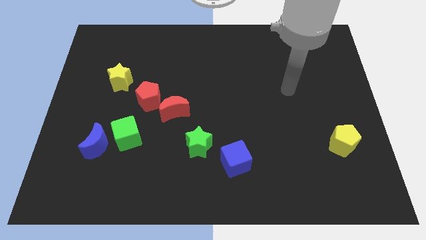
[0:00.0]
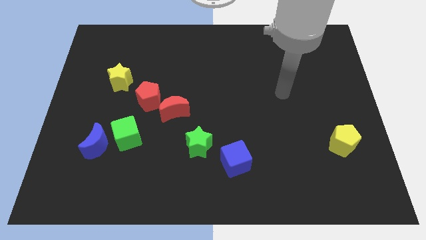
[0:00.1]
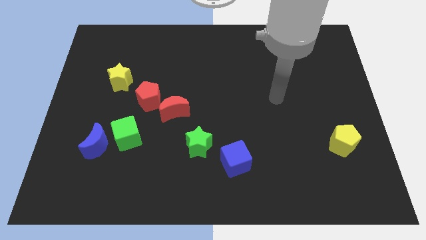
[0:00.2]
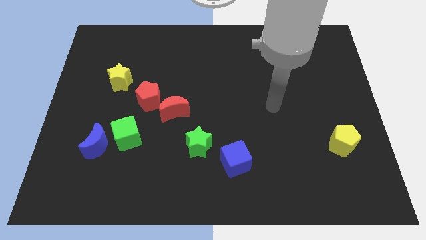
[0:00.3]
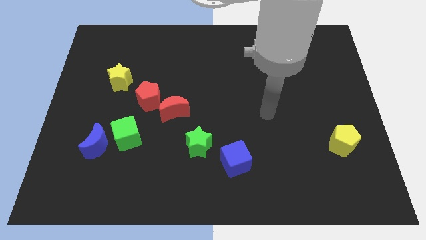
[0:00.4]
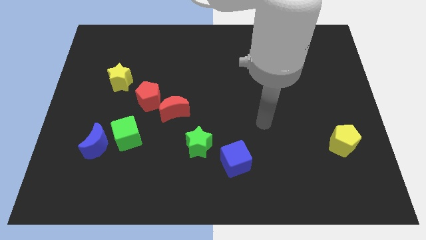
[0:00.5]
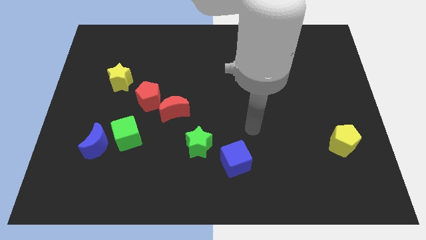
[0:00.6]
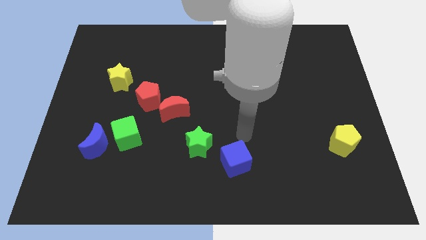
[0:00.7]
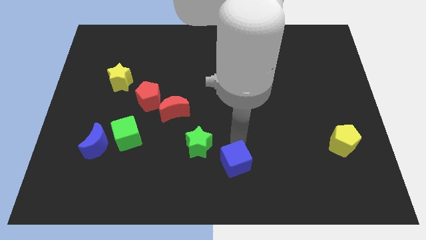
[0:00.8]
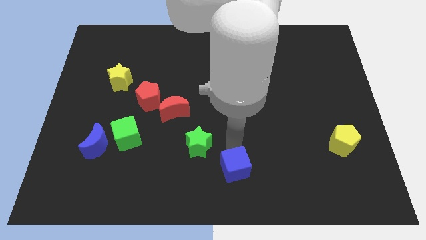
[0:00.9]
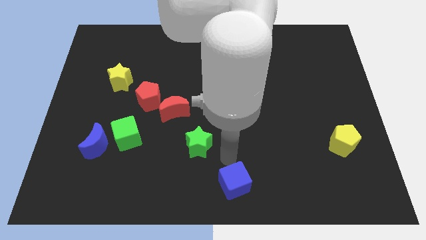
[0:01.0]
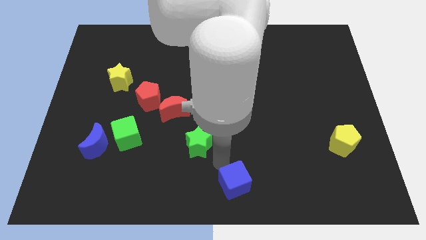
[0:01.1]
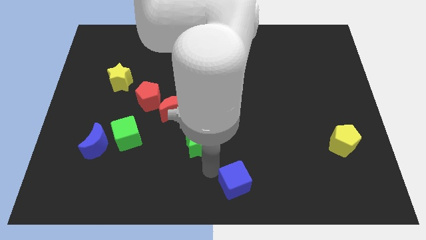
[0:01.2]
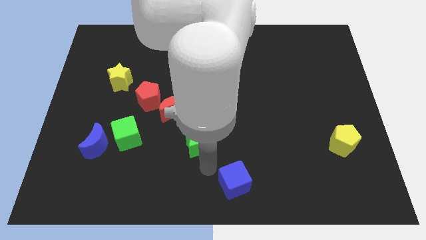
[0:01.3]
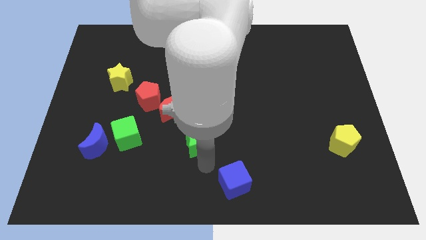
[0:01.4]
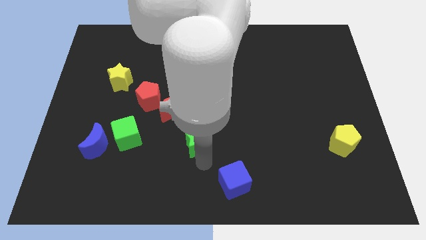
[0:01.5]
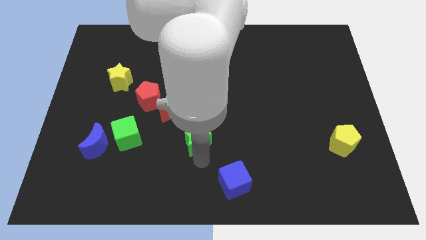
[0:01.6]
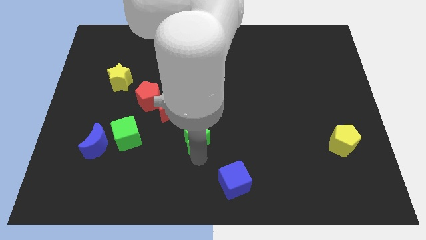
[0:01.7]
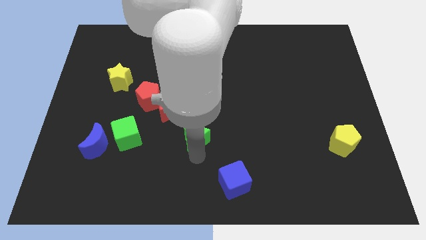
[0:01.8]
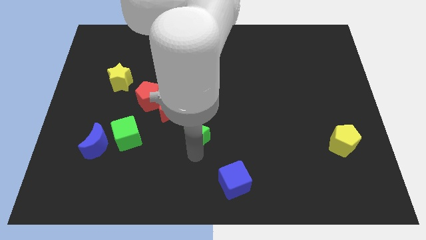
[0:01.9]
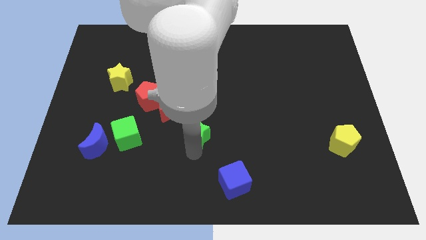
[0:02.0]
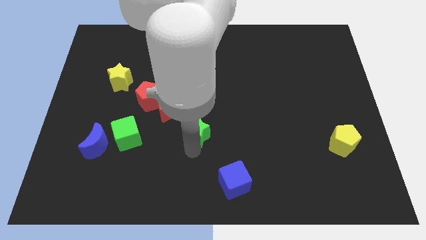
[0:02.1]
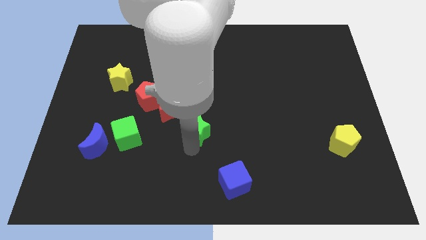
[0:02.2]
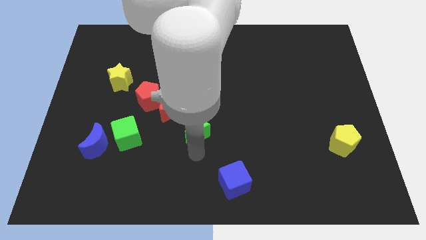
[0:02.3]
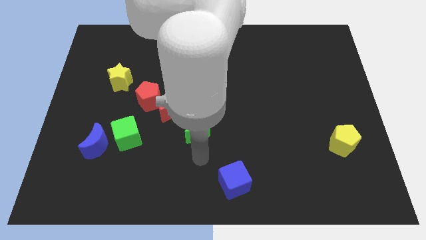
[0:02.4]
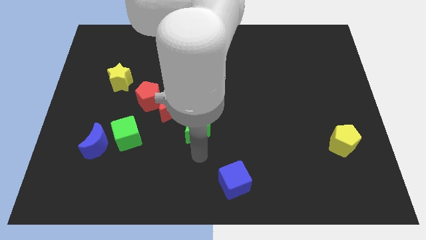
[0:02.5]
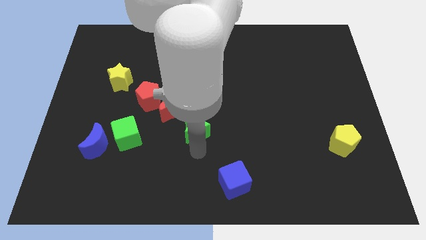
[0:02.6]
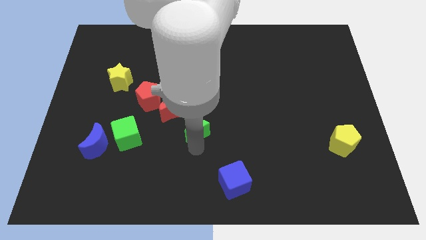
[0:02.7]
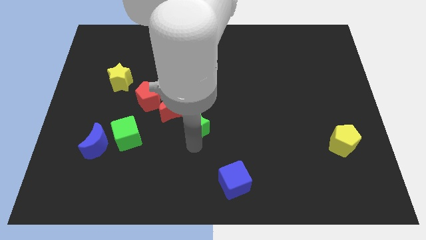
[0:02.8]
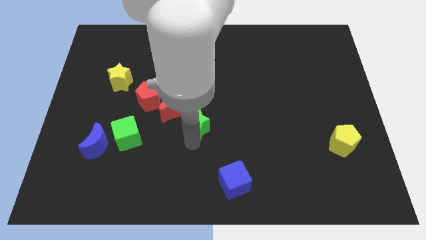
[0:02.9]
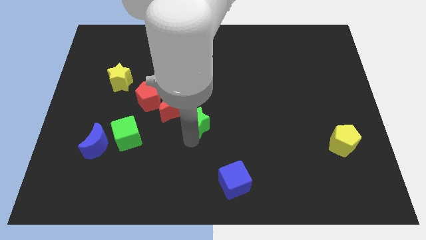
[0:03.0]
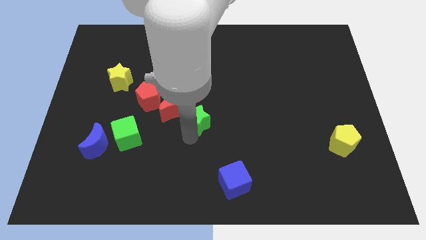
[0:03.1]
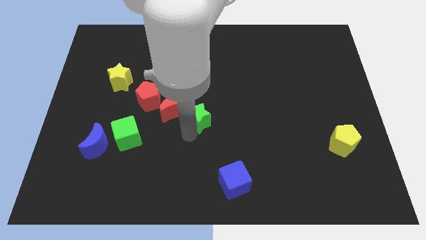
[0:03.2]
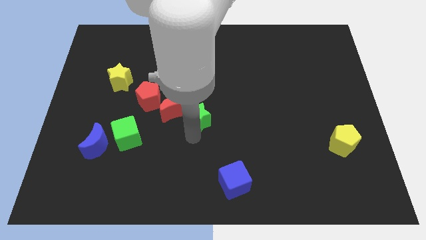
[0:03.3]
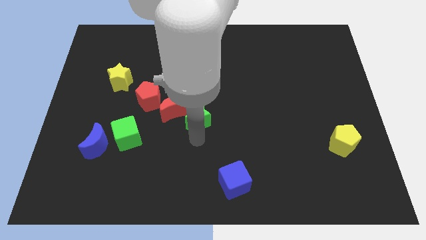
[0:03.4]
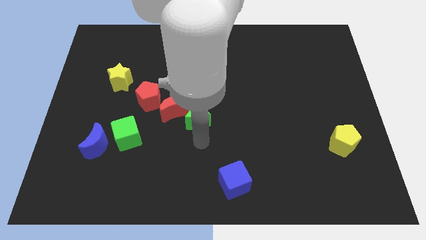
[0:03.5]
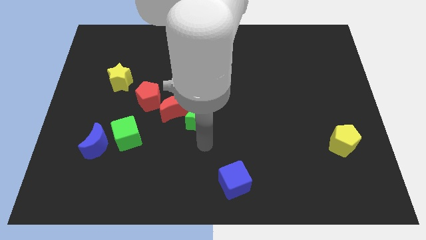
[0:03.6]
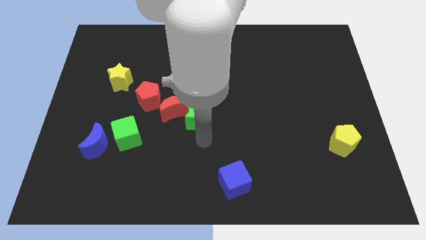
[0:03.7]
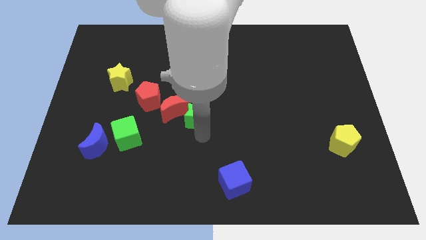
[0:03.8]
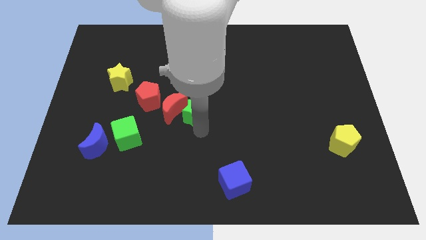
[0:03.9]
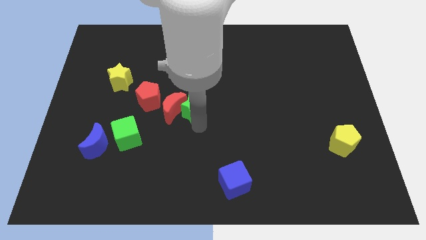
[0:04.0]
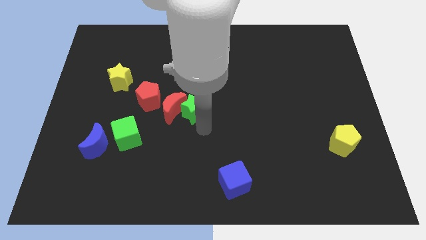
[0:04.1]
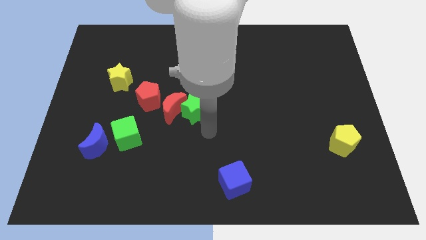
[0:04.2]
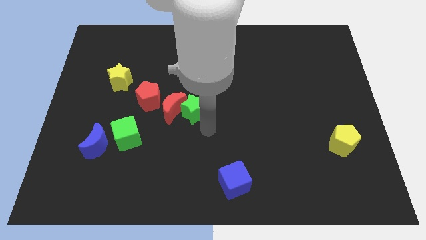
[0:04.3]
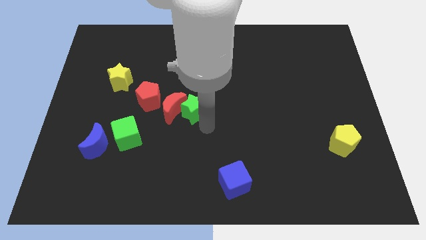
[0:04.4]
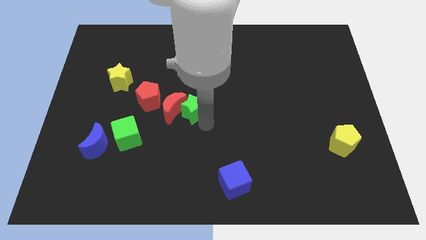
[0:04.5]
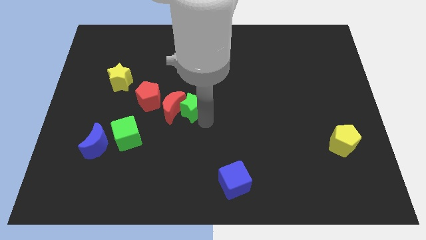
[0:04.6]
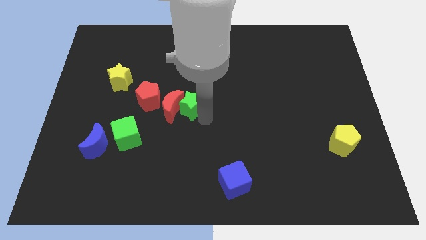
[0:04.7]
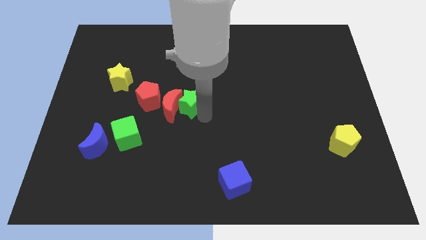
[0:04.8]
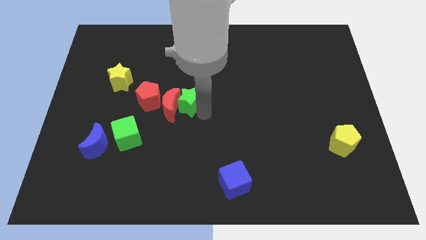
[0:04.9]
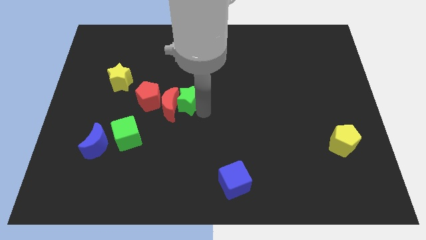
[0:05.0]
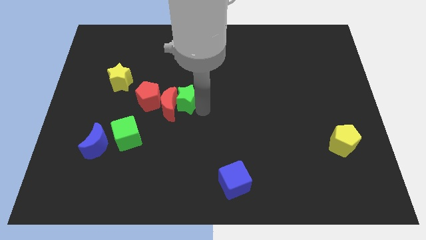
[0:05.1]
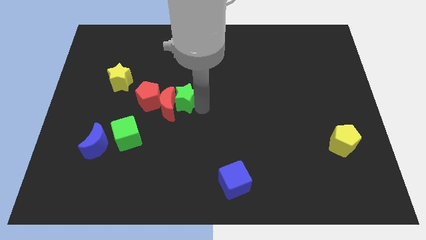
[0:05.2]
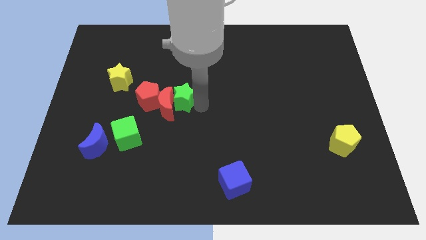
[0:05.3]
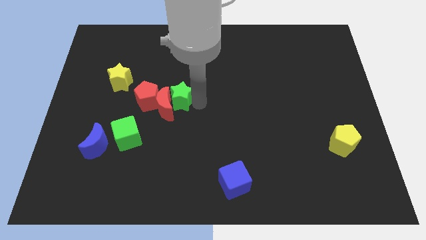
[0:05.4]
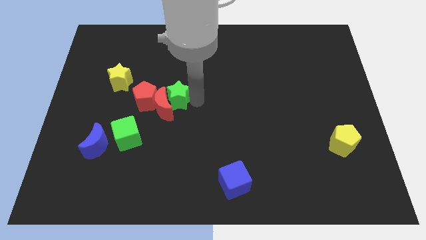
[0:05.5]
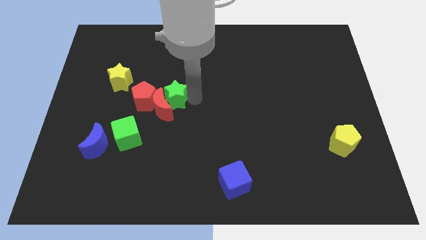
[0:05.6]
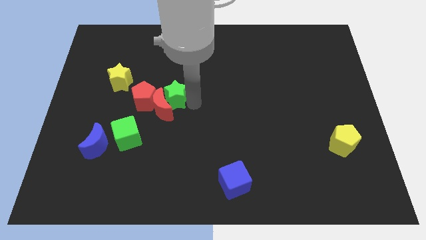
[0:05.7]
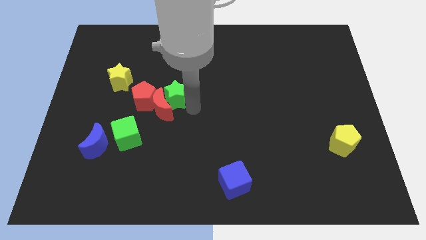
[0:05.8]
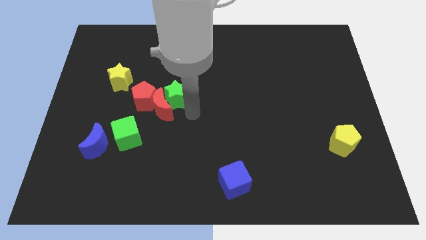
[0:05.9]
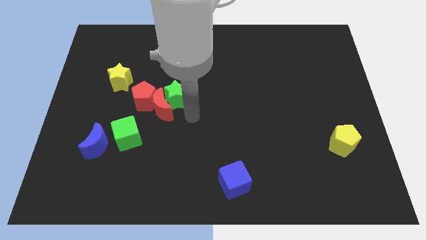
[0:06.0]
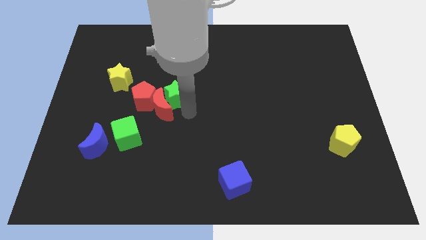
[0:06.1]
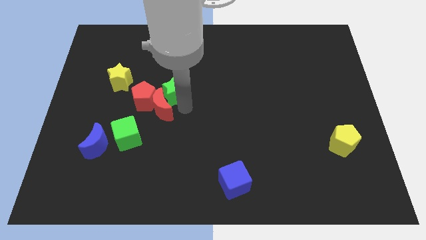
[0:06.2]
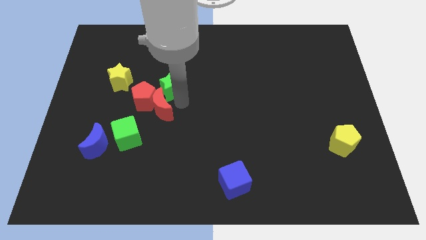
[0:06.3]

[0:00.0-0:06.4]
put the green star just right of the yellow star

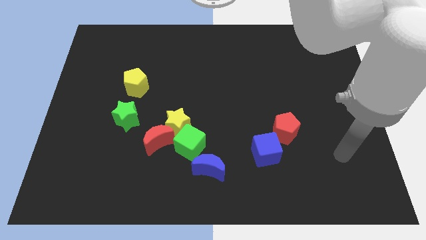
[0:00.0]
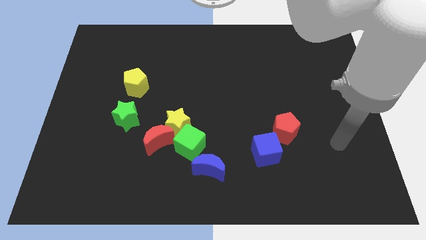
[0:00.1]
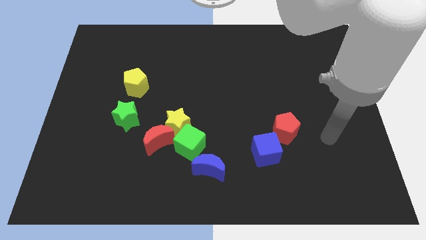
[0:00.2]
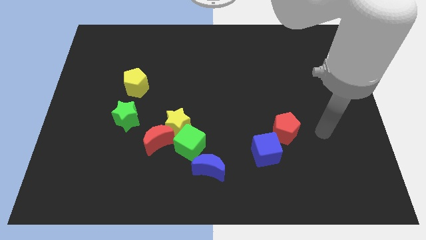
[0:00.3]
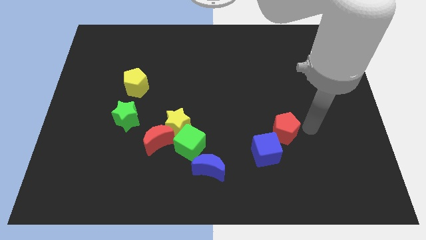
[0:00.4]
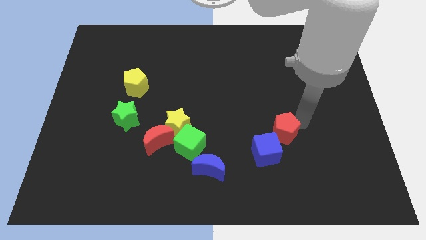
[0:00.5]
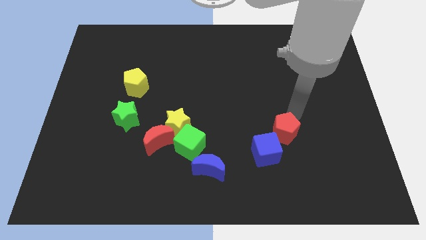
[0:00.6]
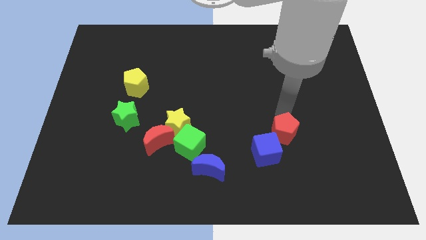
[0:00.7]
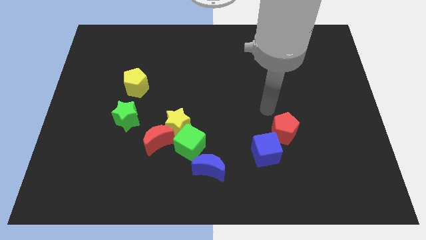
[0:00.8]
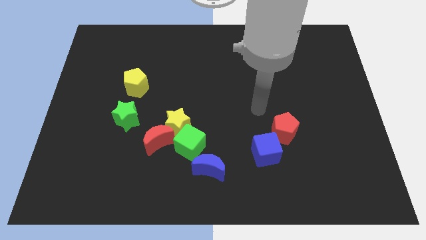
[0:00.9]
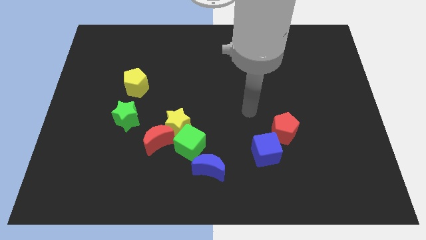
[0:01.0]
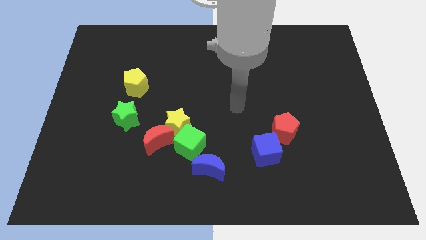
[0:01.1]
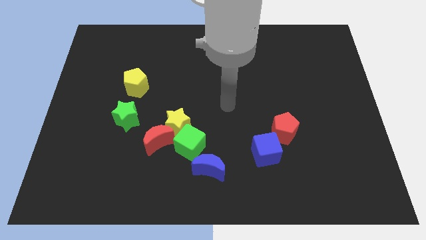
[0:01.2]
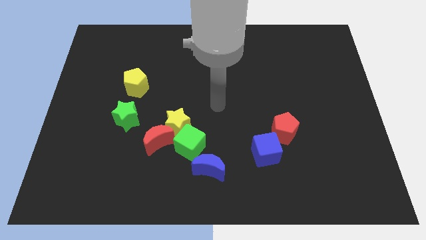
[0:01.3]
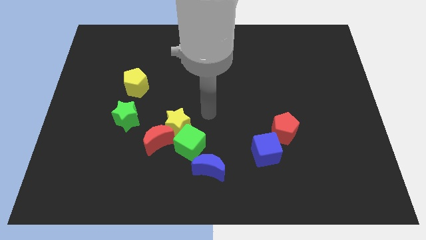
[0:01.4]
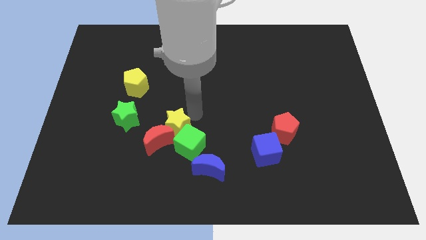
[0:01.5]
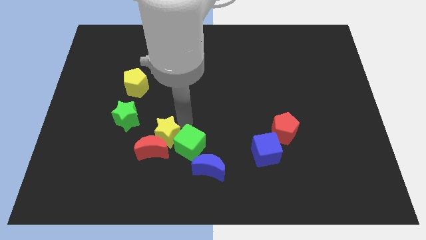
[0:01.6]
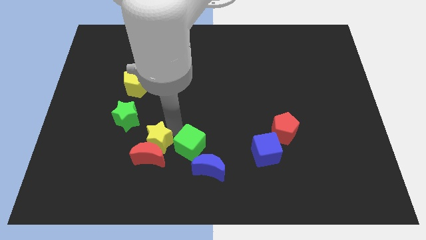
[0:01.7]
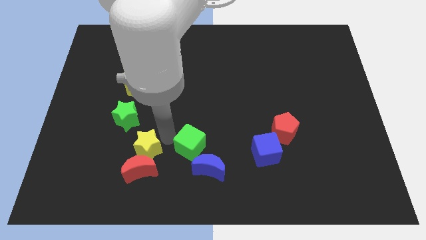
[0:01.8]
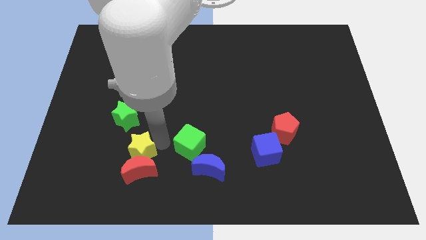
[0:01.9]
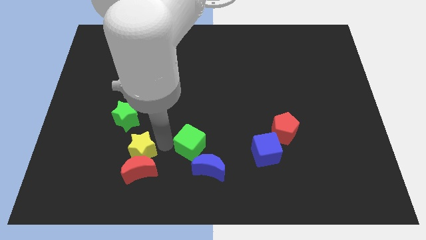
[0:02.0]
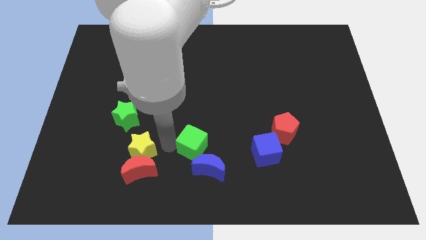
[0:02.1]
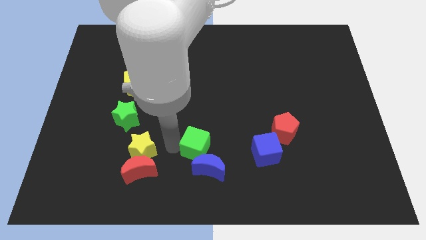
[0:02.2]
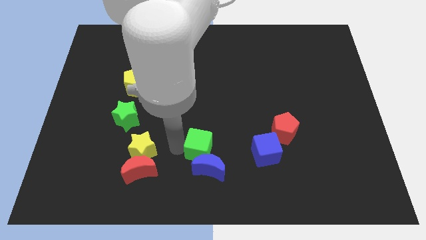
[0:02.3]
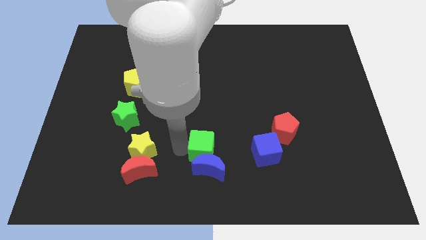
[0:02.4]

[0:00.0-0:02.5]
put the green cube to the top right of the blue moon
